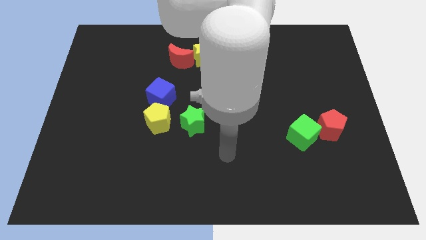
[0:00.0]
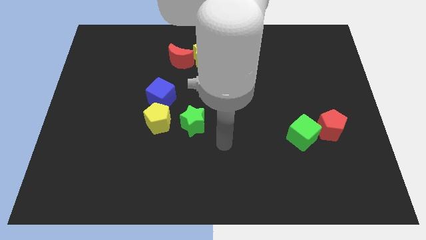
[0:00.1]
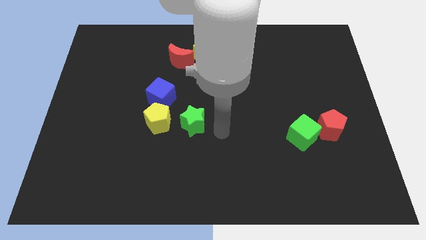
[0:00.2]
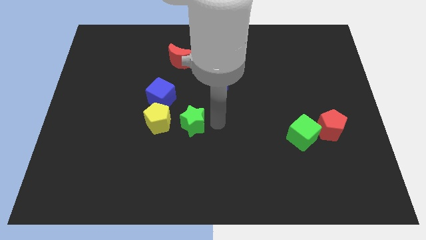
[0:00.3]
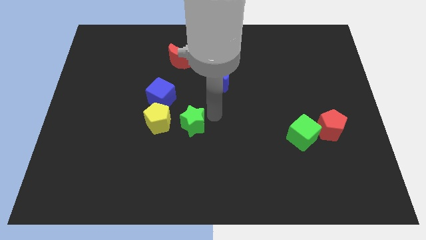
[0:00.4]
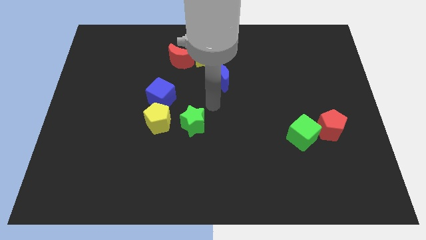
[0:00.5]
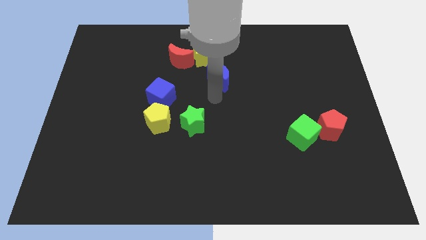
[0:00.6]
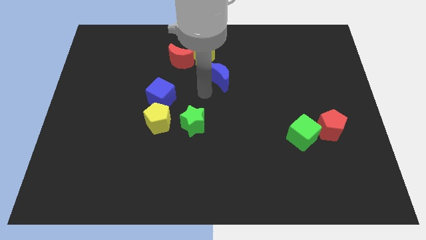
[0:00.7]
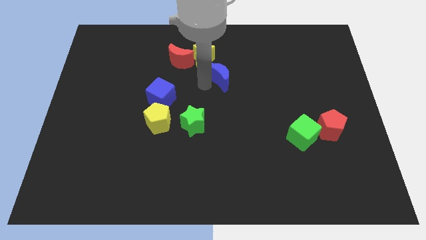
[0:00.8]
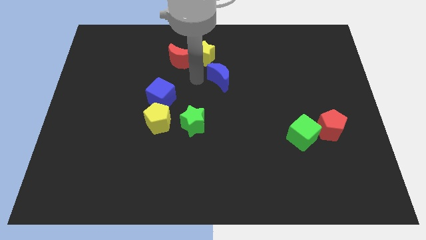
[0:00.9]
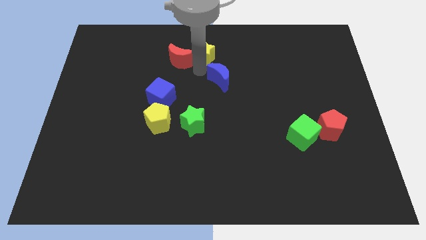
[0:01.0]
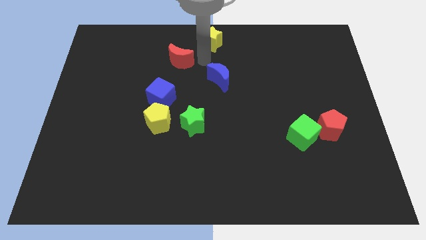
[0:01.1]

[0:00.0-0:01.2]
separate the red moon from the yellow star

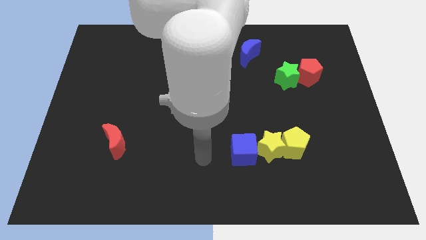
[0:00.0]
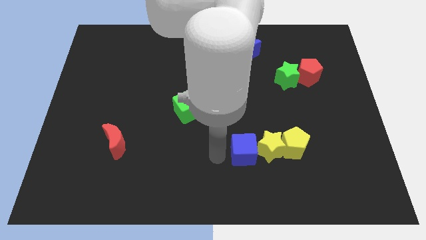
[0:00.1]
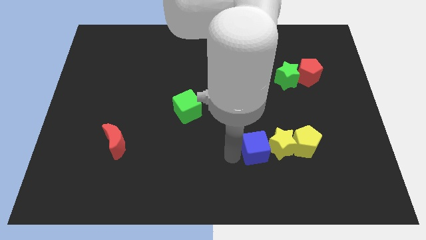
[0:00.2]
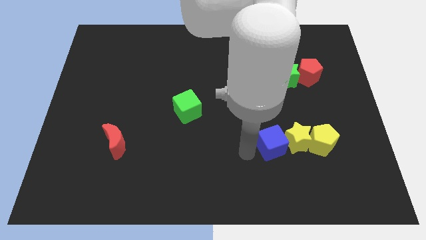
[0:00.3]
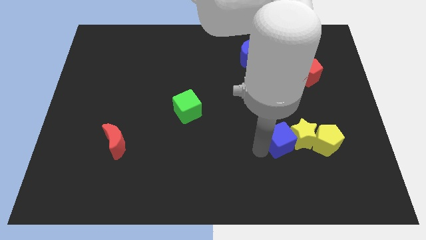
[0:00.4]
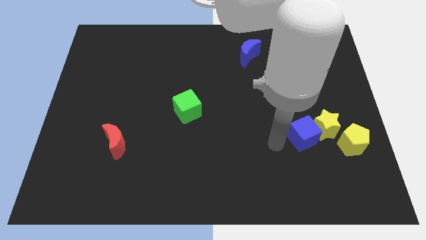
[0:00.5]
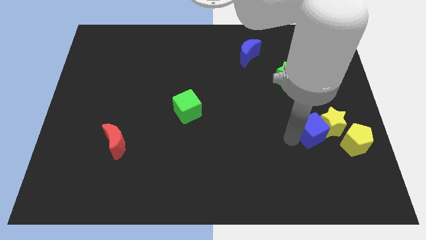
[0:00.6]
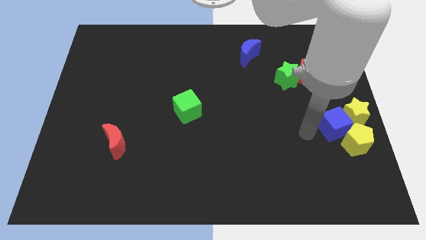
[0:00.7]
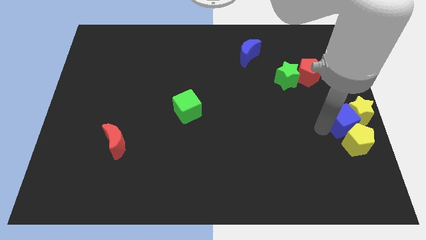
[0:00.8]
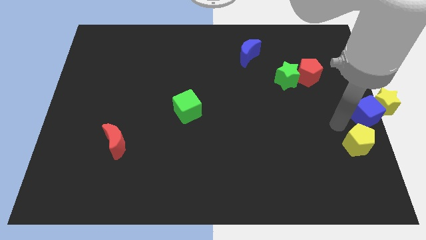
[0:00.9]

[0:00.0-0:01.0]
move the yellow pentagon away from the yellow star

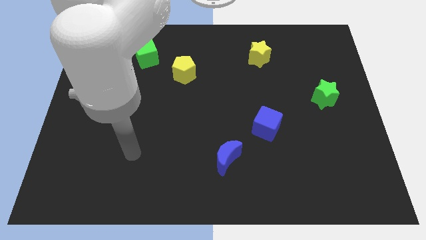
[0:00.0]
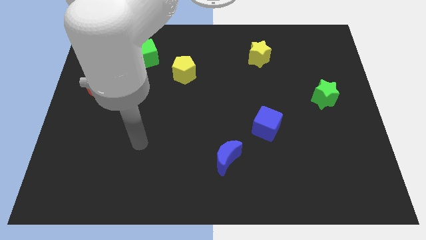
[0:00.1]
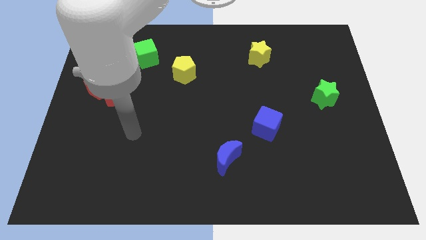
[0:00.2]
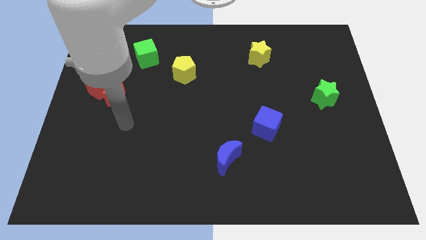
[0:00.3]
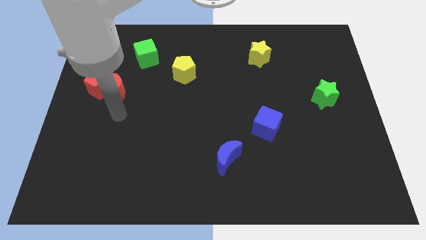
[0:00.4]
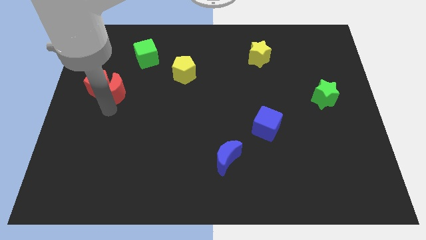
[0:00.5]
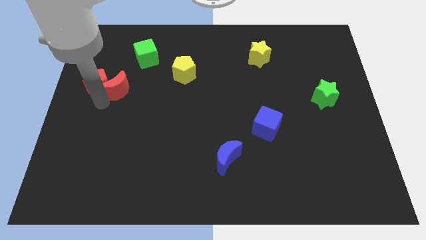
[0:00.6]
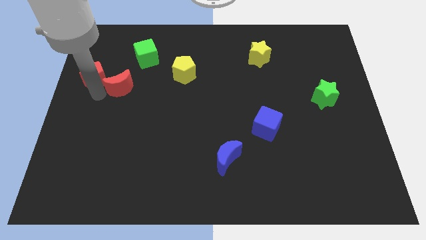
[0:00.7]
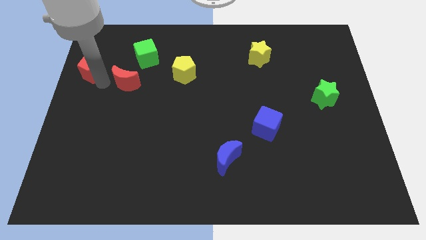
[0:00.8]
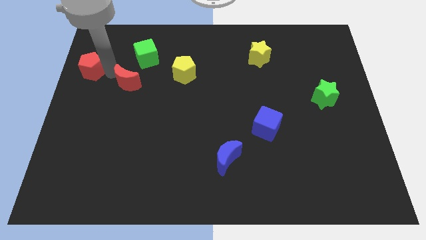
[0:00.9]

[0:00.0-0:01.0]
pull the red moon apart from the red pentagon

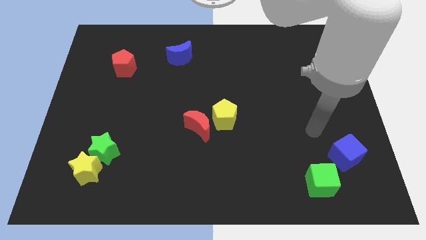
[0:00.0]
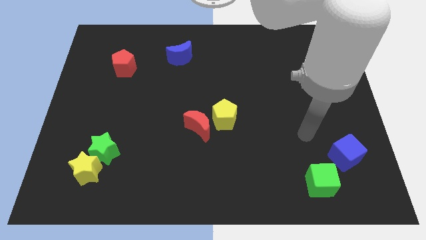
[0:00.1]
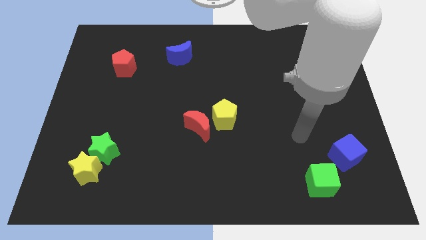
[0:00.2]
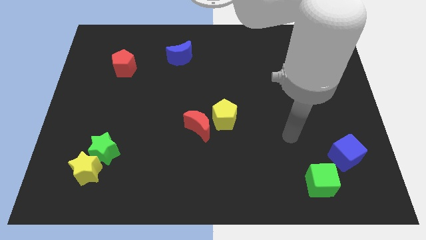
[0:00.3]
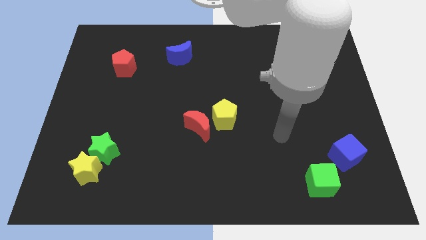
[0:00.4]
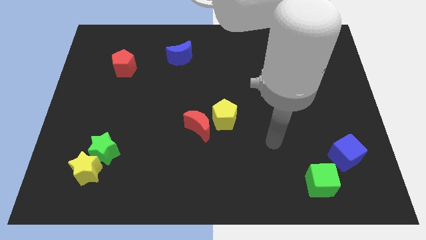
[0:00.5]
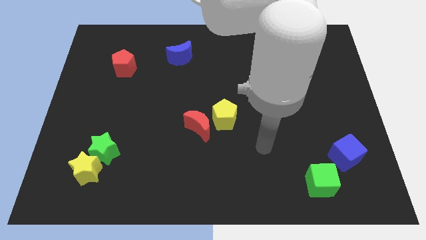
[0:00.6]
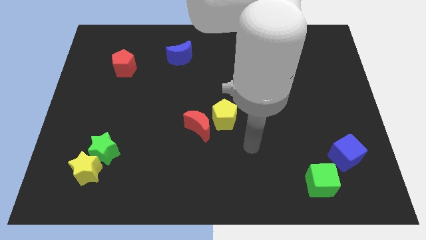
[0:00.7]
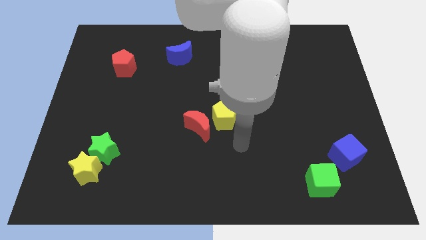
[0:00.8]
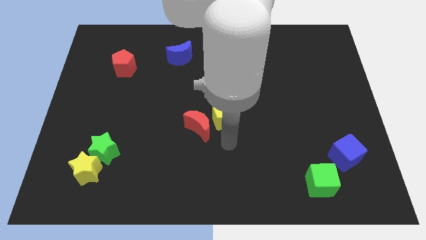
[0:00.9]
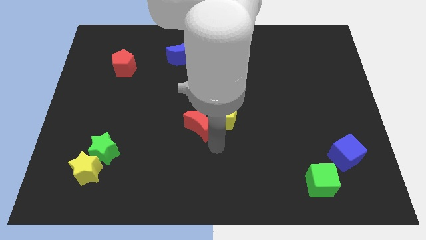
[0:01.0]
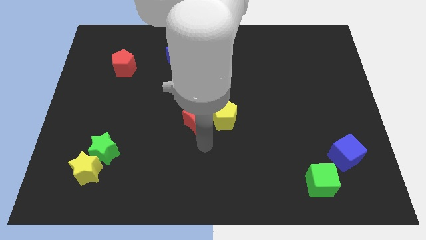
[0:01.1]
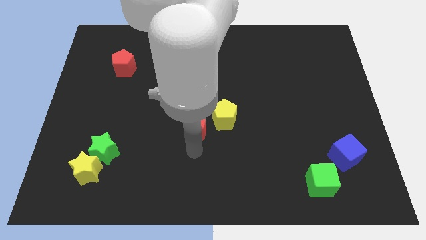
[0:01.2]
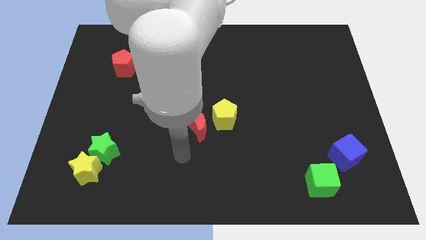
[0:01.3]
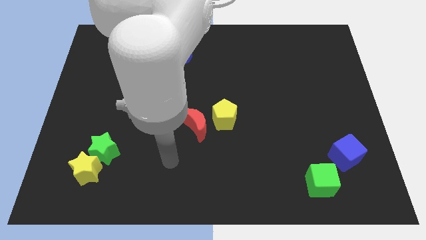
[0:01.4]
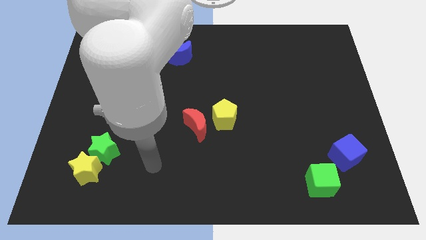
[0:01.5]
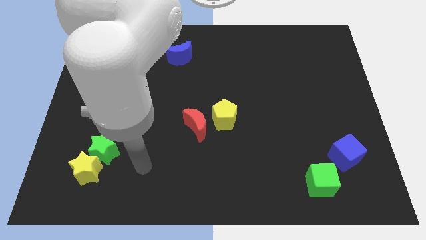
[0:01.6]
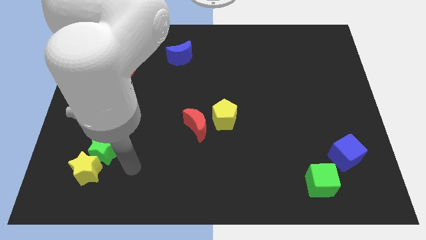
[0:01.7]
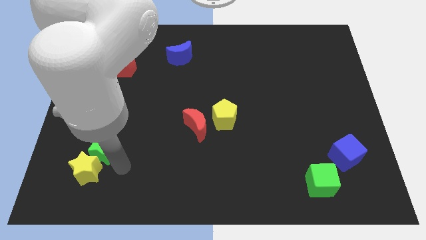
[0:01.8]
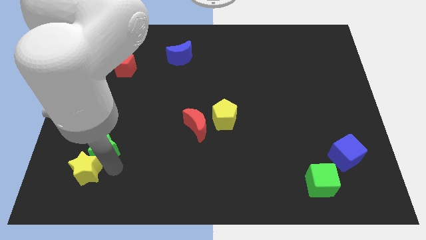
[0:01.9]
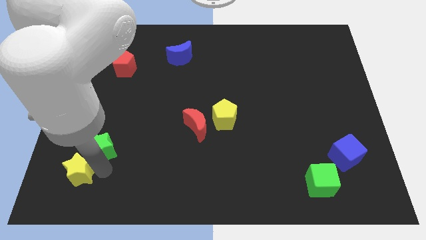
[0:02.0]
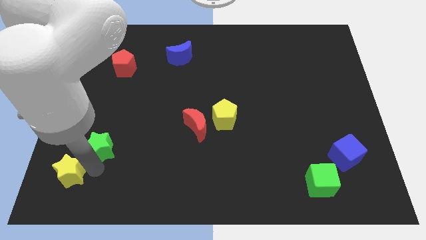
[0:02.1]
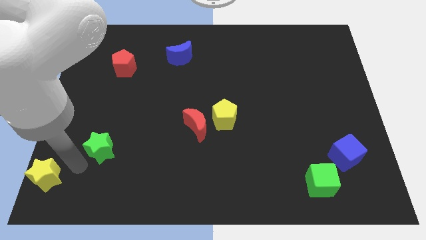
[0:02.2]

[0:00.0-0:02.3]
move the green star away from the yellow star

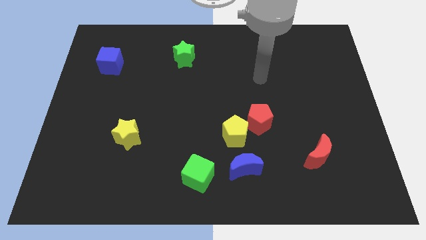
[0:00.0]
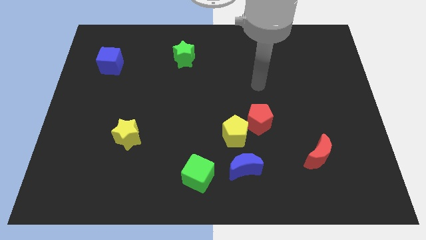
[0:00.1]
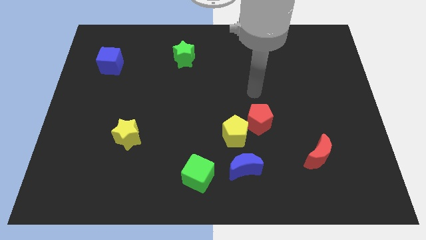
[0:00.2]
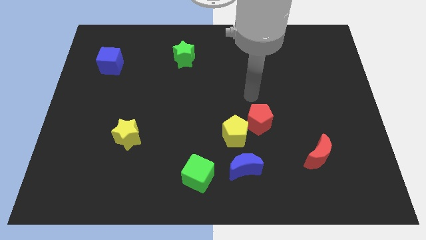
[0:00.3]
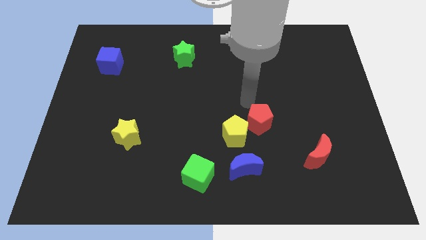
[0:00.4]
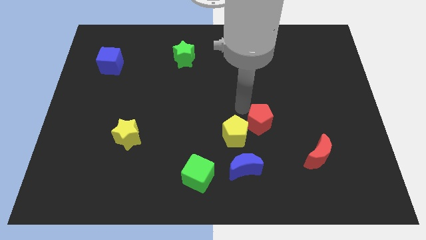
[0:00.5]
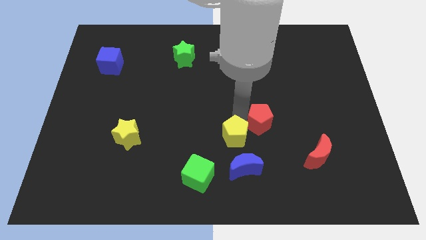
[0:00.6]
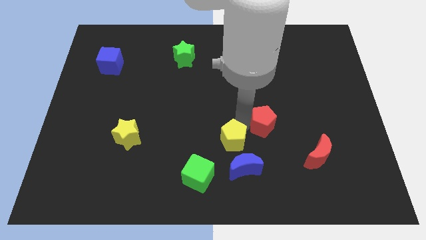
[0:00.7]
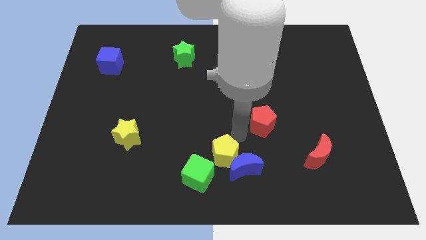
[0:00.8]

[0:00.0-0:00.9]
move the red pentagon away from the yellow pentagon

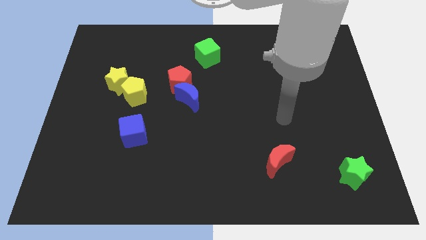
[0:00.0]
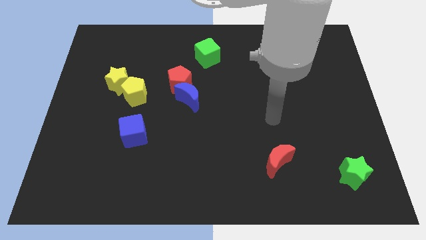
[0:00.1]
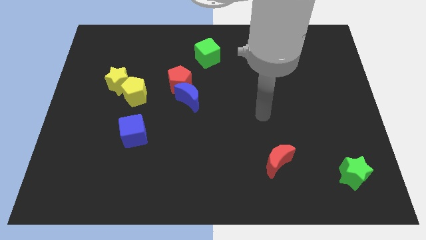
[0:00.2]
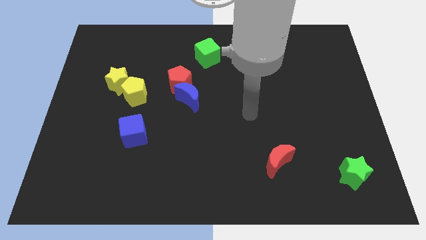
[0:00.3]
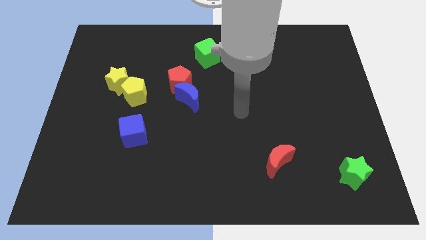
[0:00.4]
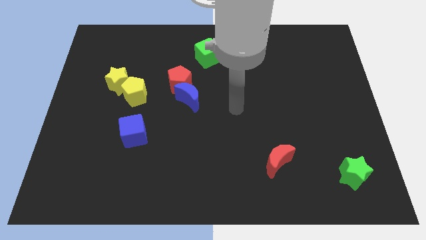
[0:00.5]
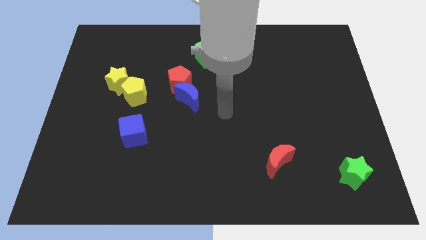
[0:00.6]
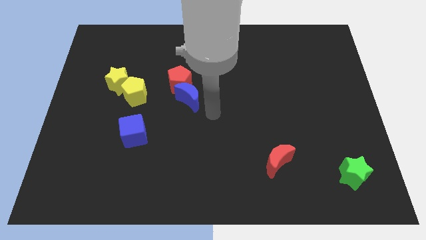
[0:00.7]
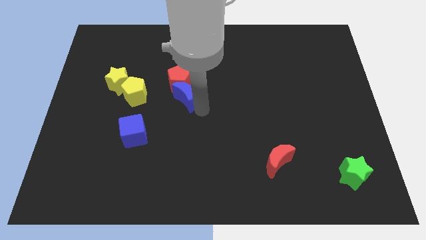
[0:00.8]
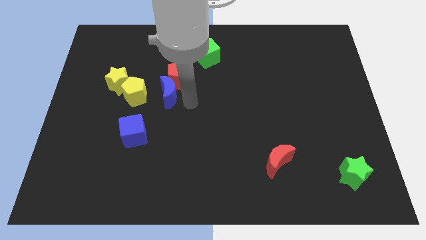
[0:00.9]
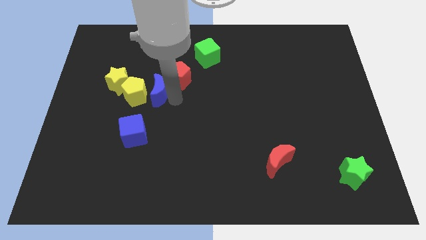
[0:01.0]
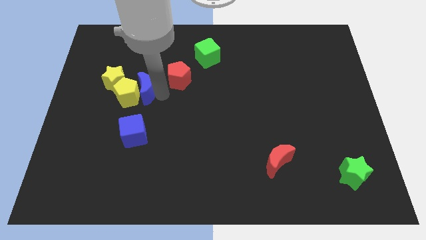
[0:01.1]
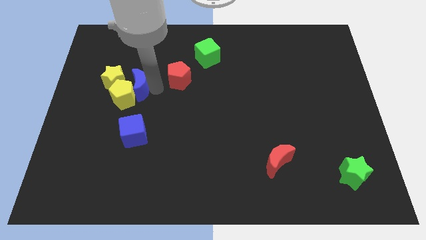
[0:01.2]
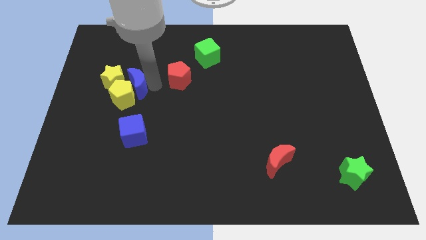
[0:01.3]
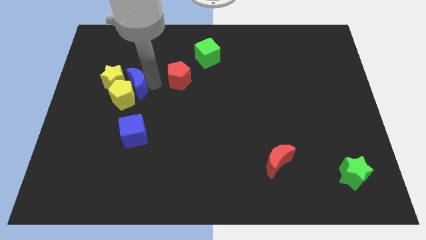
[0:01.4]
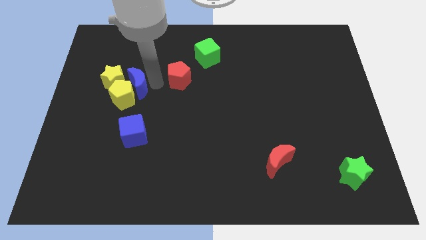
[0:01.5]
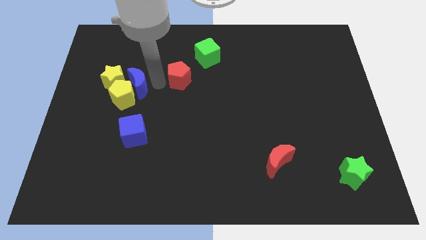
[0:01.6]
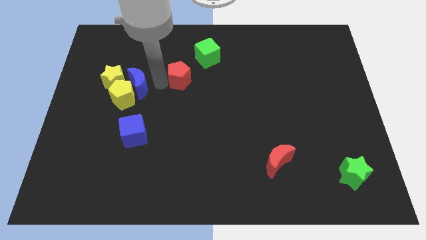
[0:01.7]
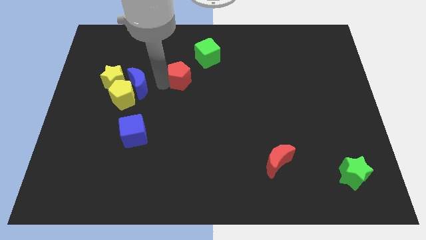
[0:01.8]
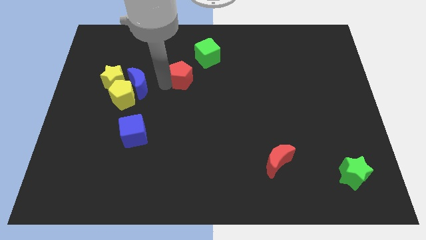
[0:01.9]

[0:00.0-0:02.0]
pull the red pentagon apart from the blue moon

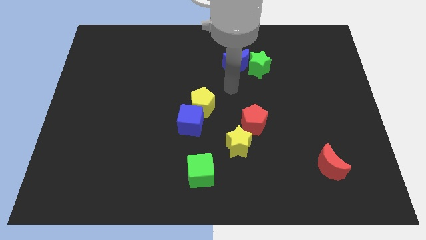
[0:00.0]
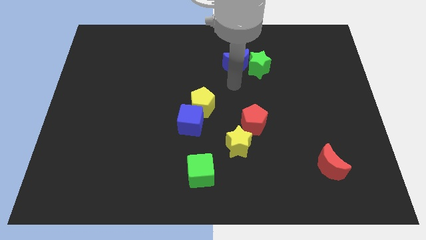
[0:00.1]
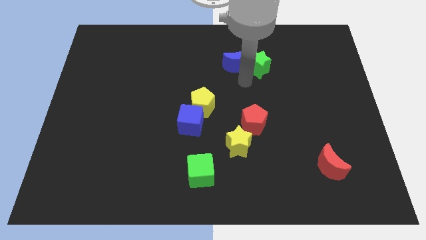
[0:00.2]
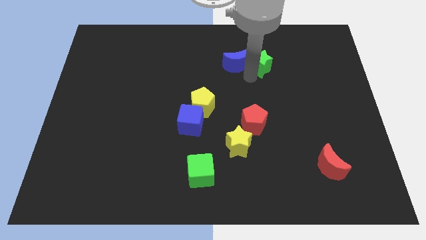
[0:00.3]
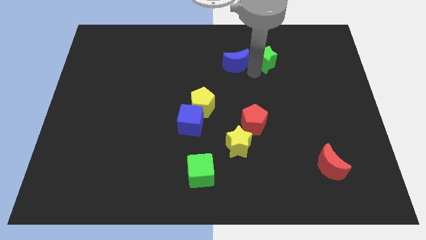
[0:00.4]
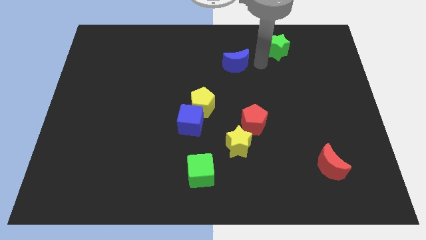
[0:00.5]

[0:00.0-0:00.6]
separate the blue moon from the green star

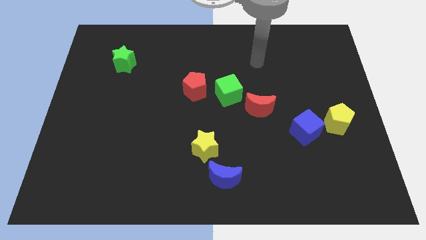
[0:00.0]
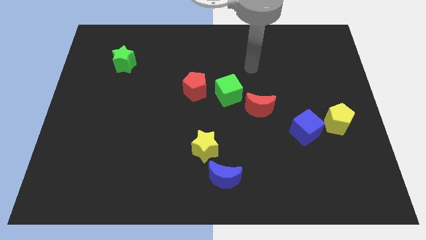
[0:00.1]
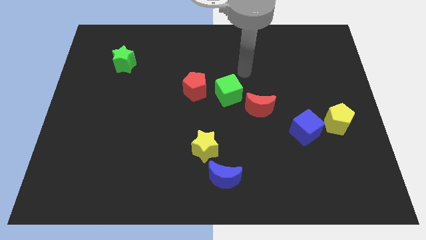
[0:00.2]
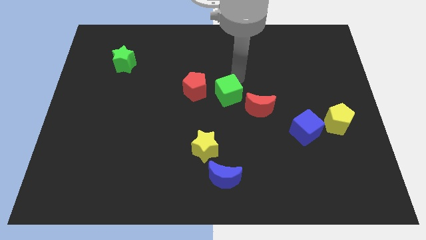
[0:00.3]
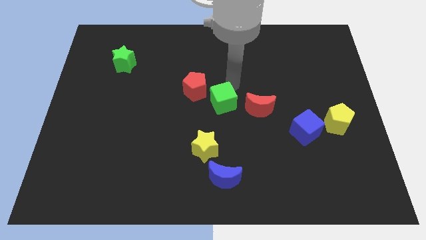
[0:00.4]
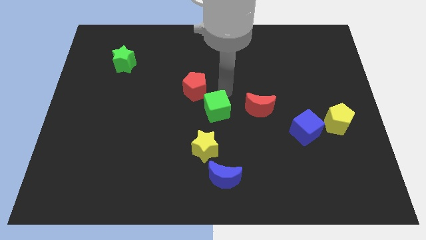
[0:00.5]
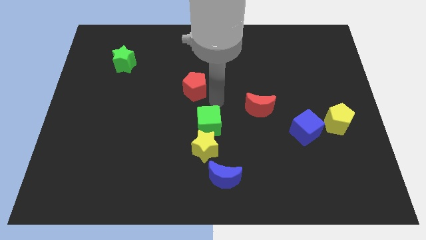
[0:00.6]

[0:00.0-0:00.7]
pull the red pentagon apart from the green cube
